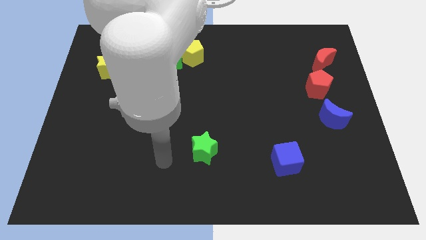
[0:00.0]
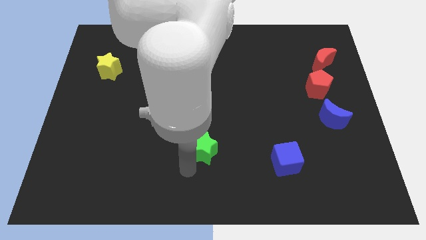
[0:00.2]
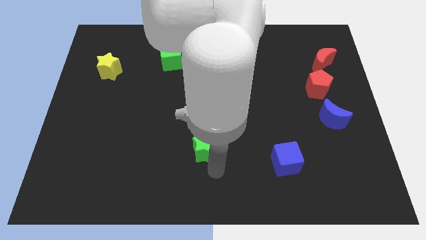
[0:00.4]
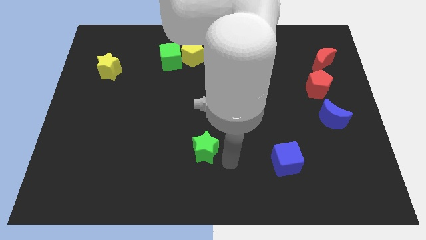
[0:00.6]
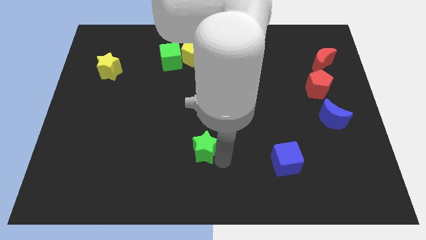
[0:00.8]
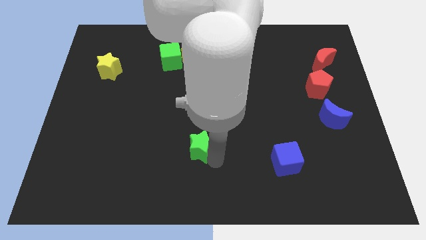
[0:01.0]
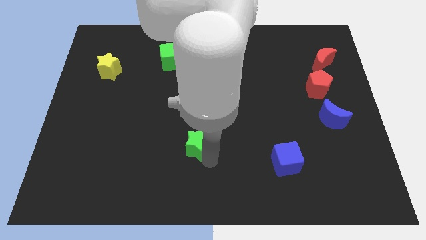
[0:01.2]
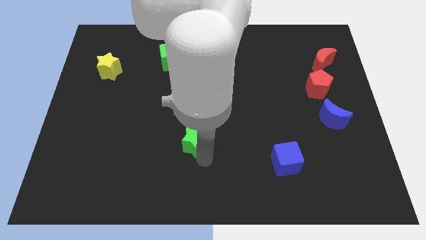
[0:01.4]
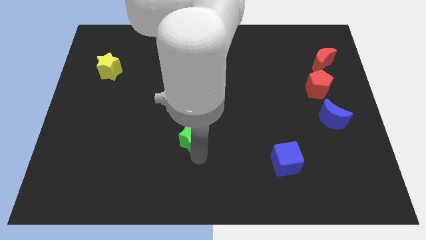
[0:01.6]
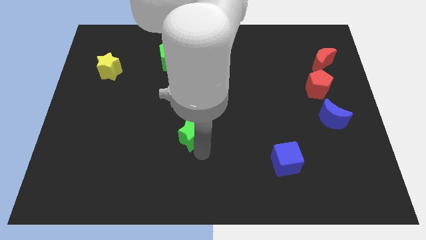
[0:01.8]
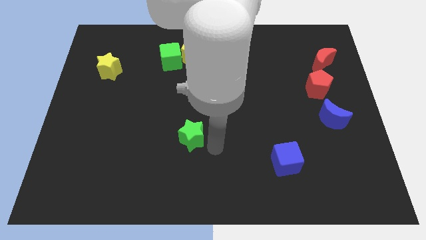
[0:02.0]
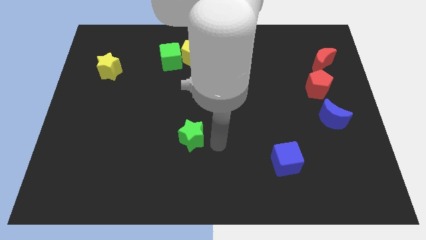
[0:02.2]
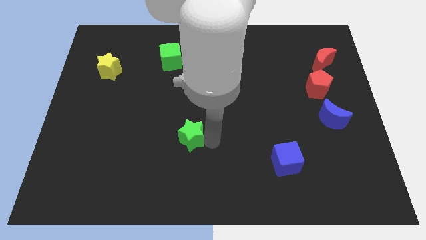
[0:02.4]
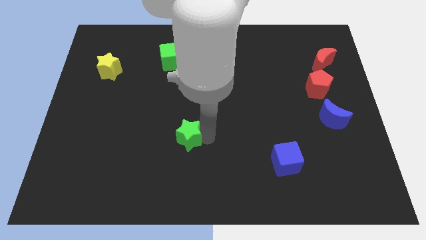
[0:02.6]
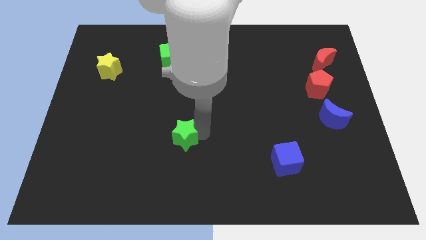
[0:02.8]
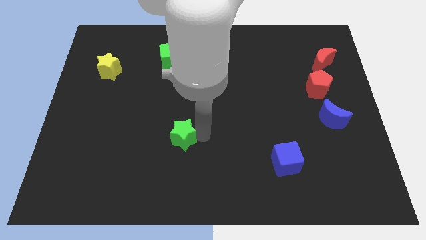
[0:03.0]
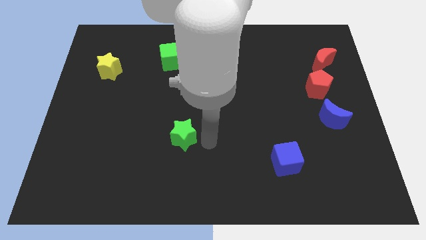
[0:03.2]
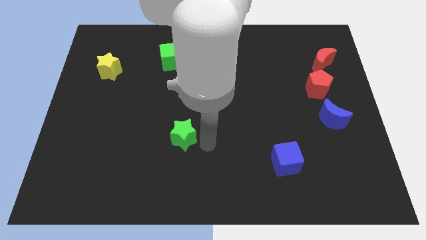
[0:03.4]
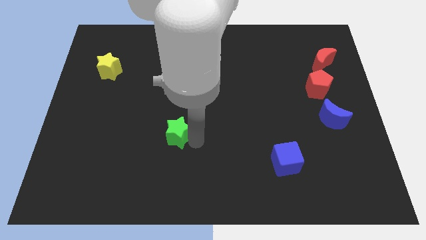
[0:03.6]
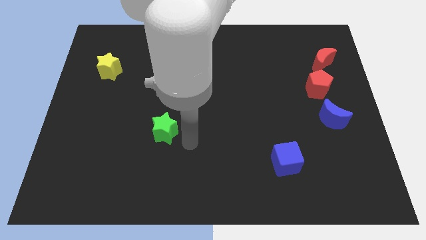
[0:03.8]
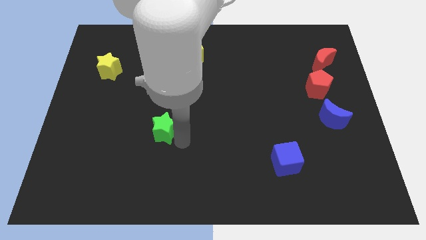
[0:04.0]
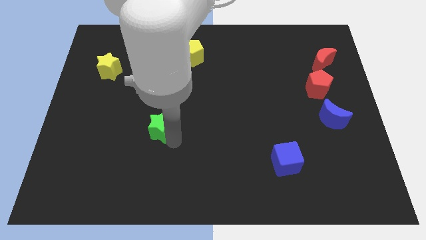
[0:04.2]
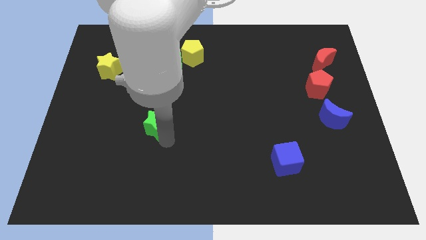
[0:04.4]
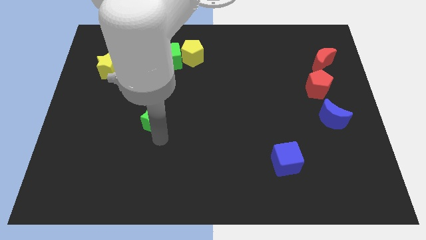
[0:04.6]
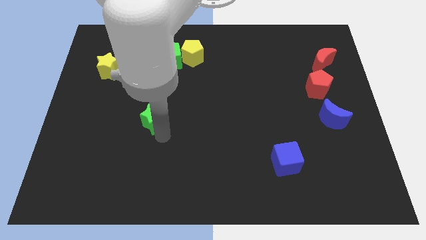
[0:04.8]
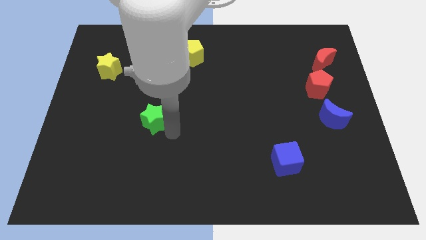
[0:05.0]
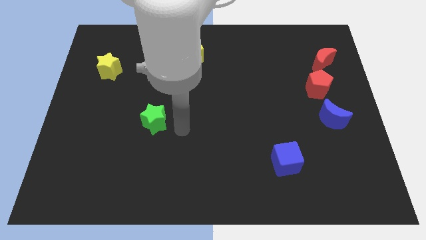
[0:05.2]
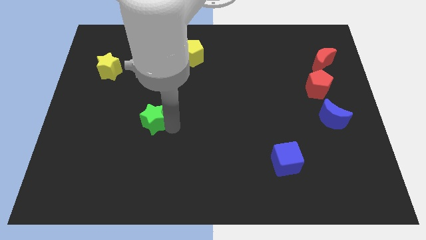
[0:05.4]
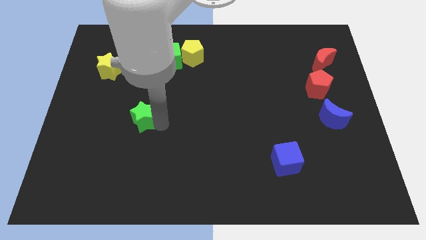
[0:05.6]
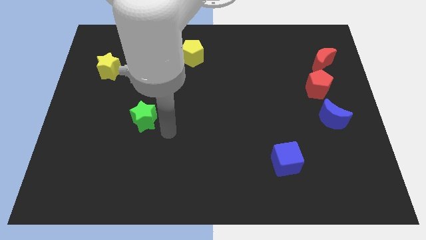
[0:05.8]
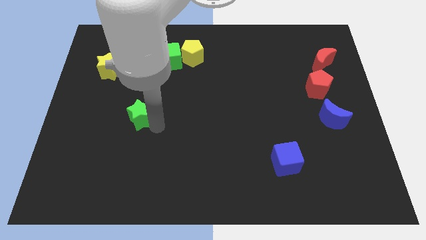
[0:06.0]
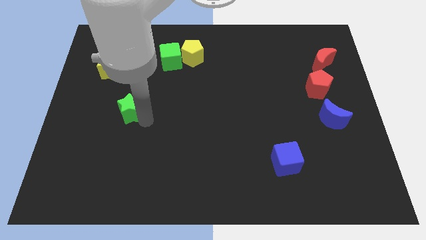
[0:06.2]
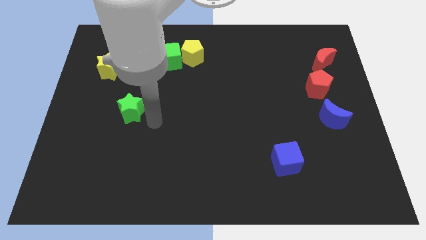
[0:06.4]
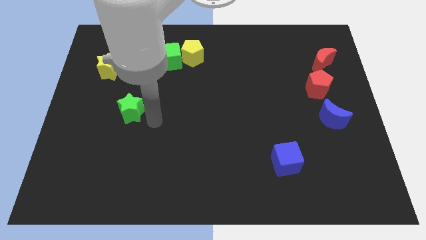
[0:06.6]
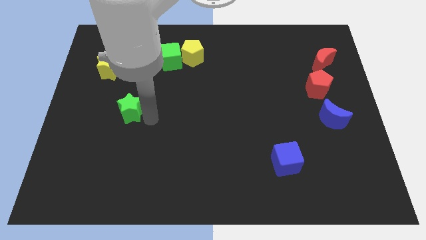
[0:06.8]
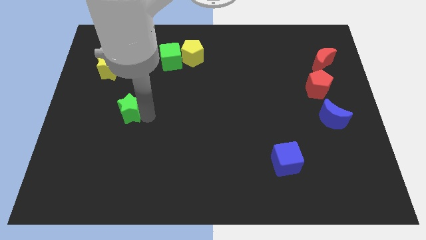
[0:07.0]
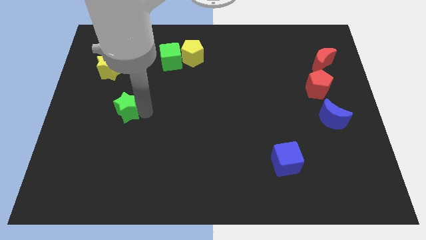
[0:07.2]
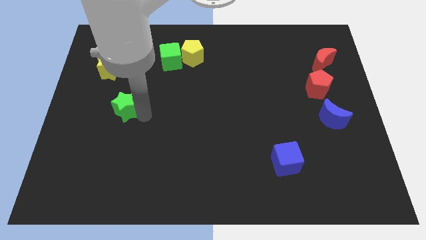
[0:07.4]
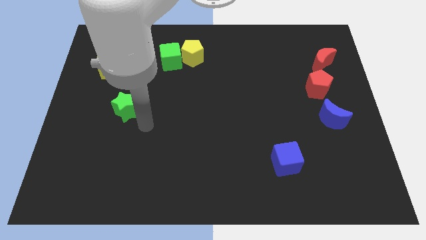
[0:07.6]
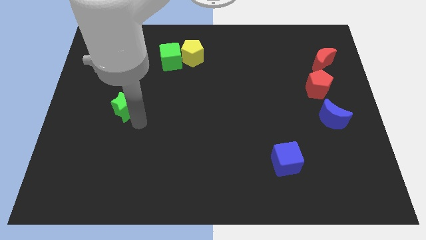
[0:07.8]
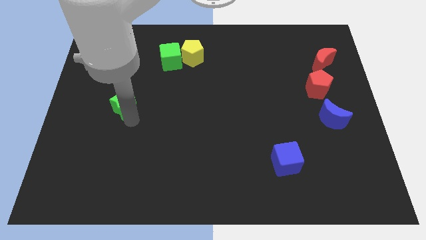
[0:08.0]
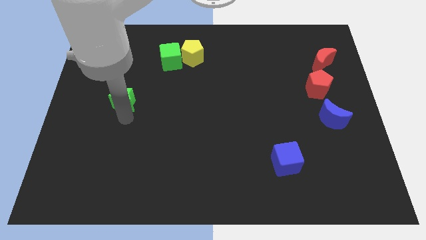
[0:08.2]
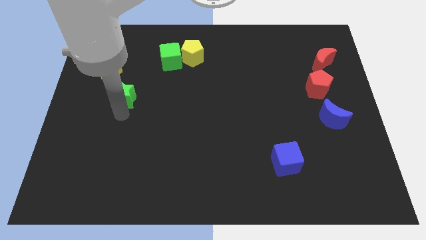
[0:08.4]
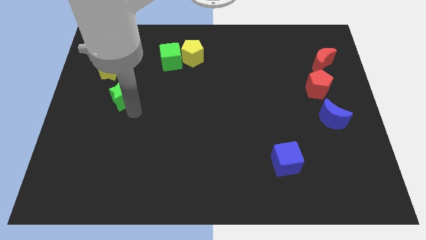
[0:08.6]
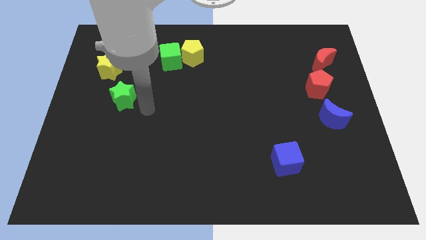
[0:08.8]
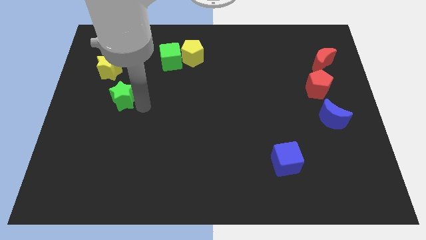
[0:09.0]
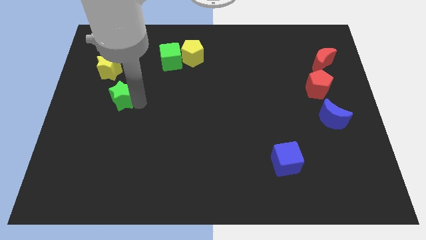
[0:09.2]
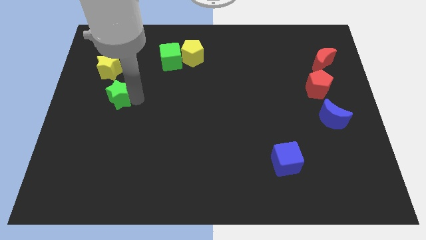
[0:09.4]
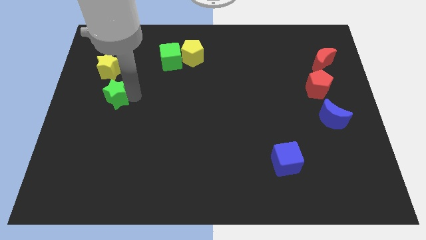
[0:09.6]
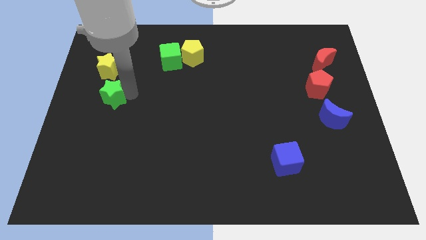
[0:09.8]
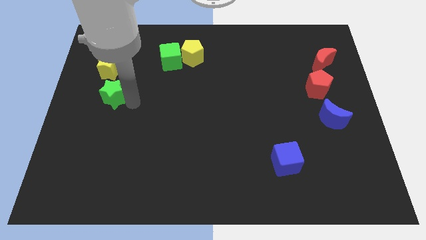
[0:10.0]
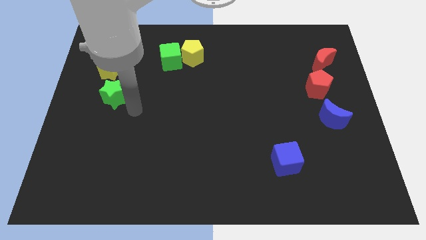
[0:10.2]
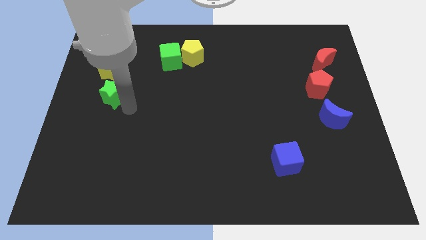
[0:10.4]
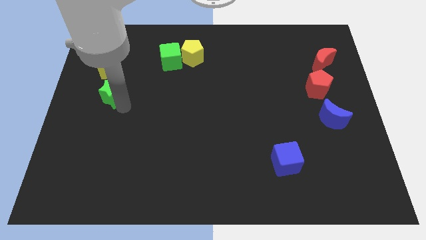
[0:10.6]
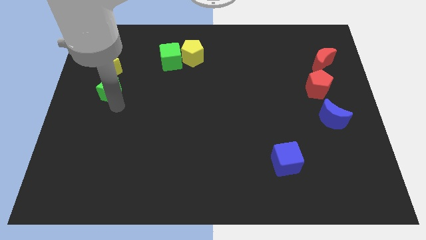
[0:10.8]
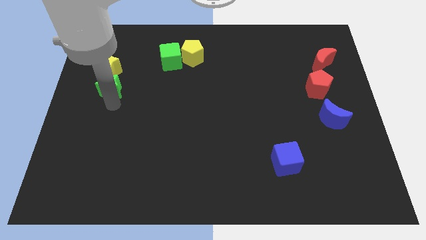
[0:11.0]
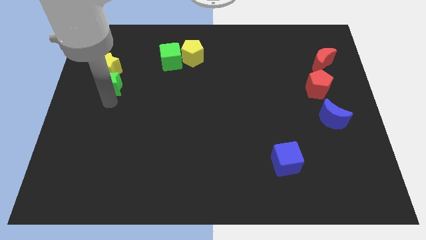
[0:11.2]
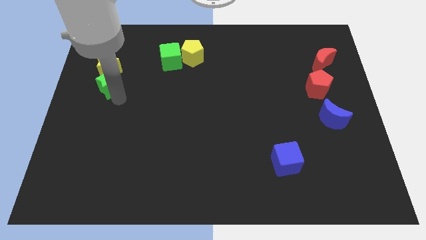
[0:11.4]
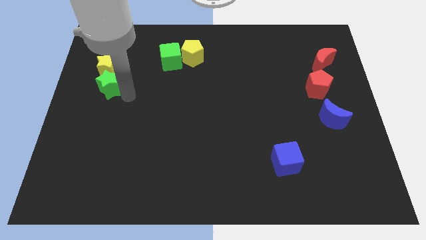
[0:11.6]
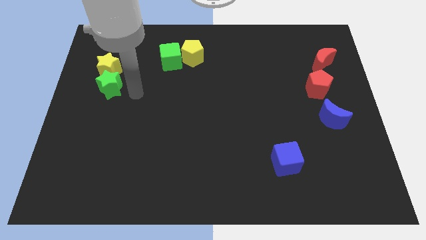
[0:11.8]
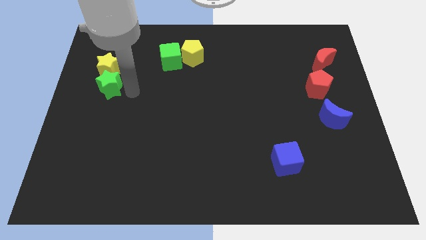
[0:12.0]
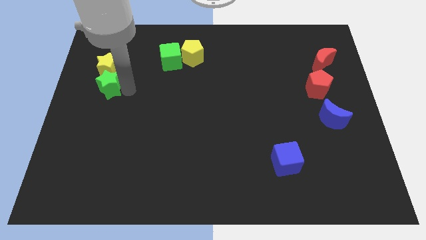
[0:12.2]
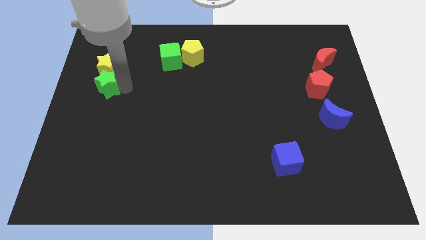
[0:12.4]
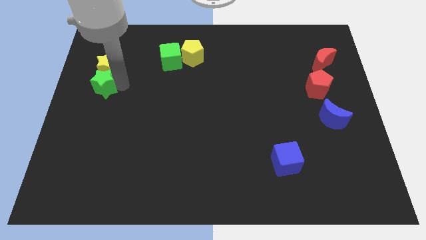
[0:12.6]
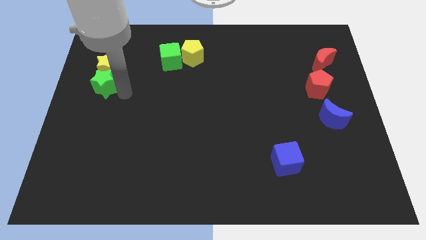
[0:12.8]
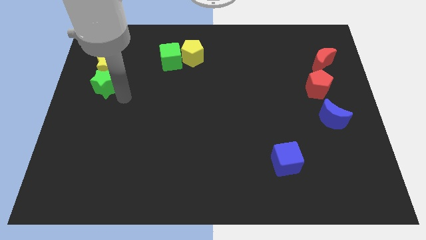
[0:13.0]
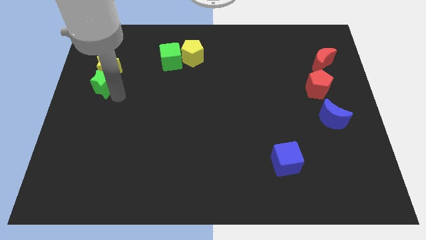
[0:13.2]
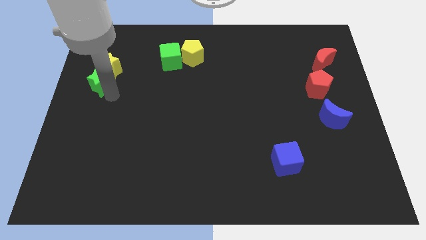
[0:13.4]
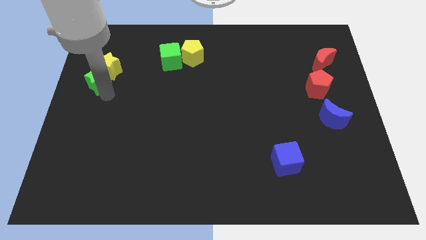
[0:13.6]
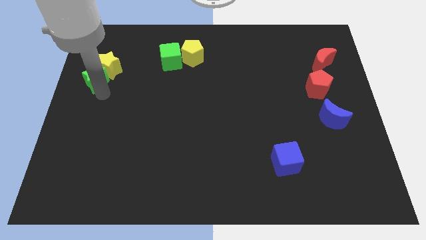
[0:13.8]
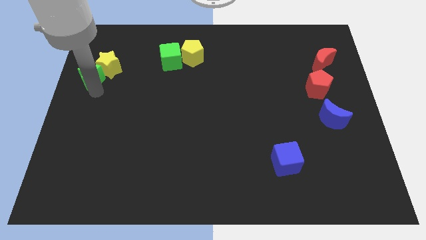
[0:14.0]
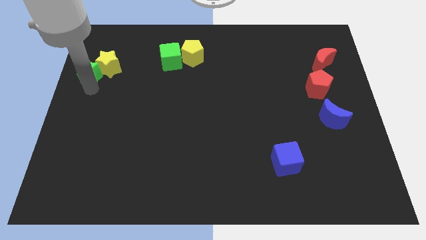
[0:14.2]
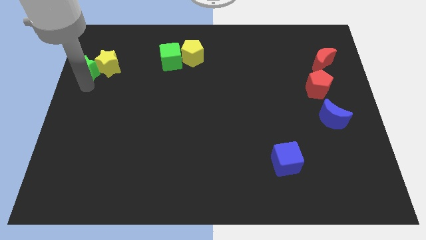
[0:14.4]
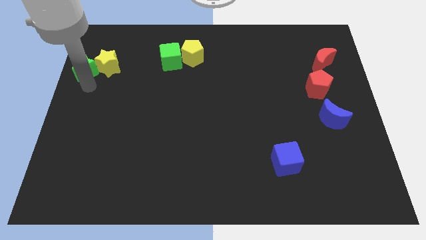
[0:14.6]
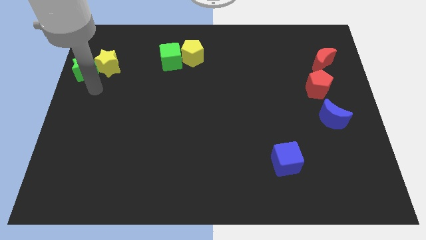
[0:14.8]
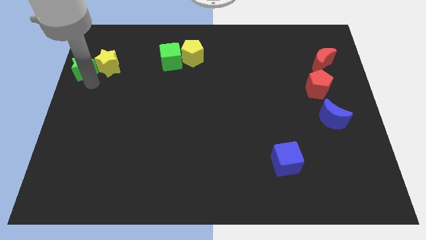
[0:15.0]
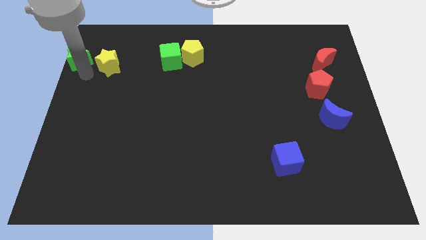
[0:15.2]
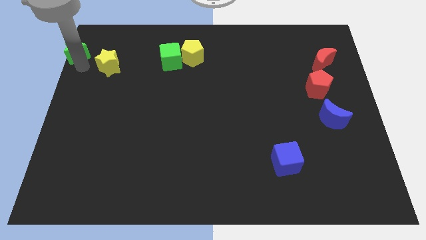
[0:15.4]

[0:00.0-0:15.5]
put the green star to the upper left corner
